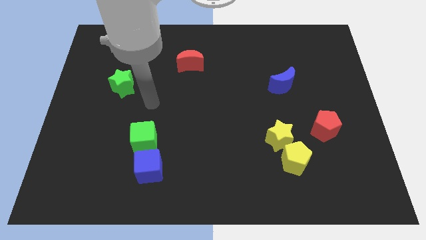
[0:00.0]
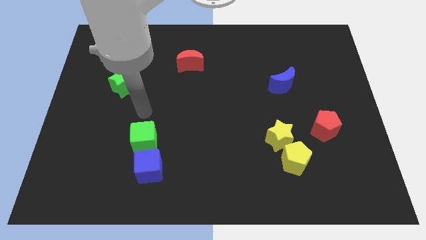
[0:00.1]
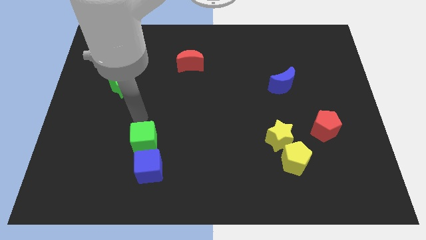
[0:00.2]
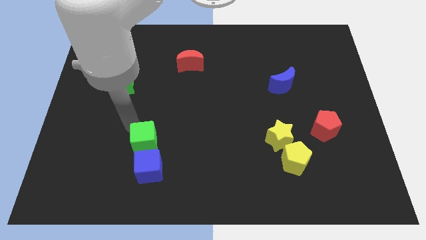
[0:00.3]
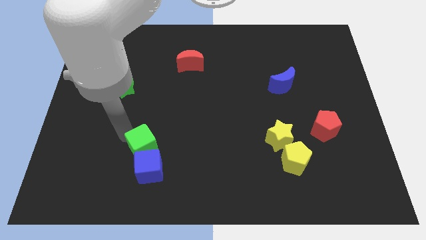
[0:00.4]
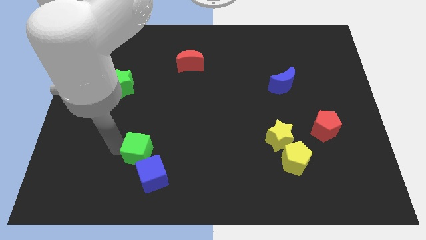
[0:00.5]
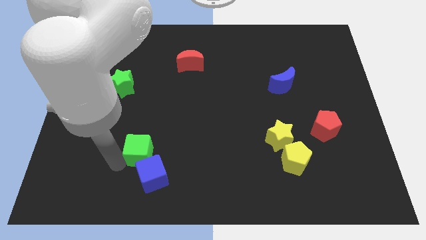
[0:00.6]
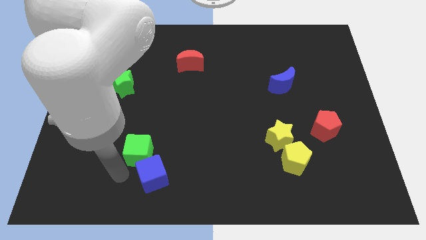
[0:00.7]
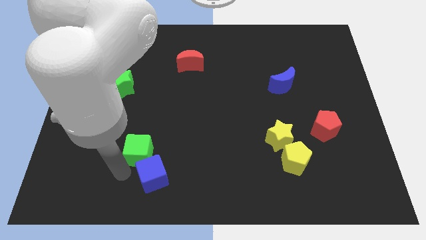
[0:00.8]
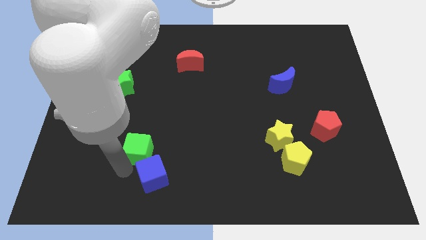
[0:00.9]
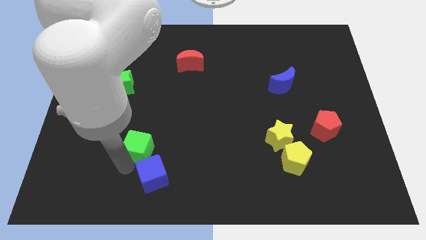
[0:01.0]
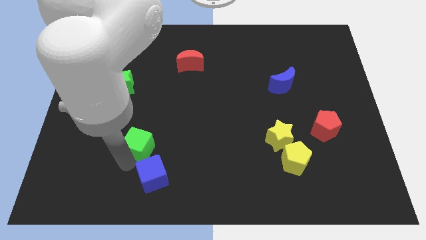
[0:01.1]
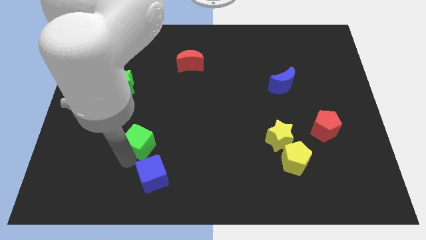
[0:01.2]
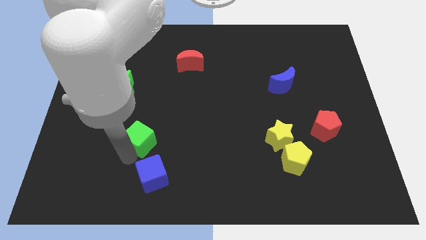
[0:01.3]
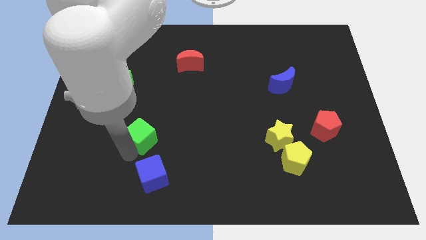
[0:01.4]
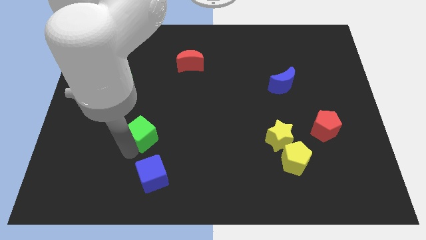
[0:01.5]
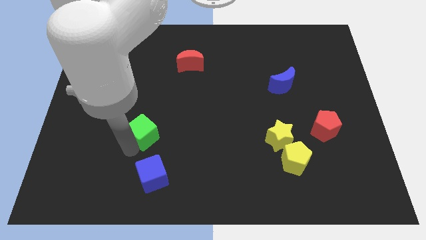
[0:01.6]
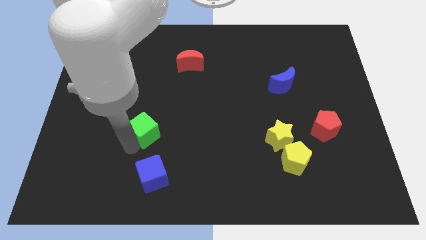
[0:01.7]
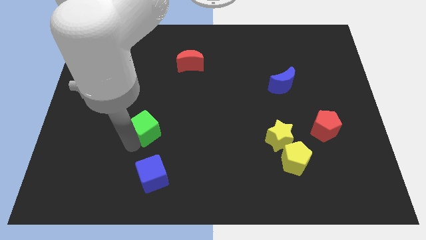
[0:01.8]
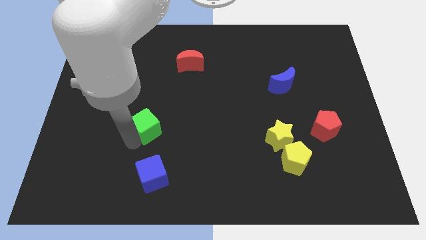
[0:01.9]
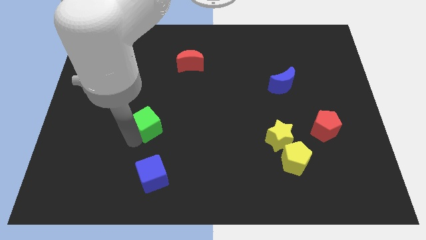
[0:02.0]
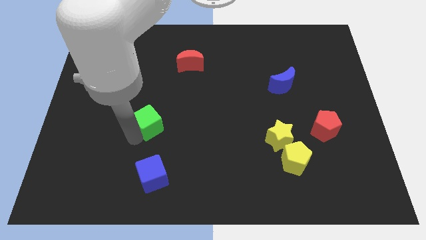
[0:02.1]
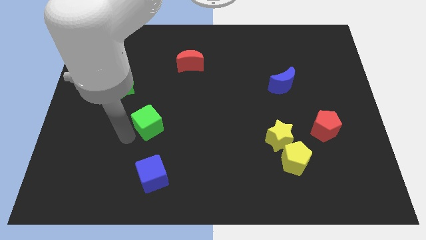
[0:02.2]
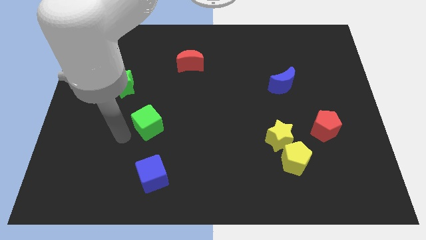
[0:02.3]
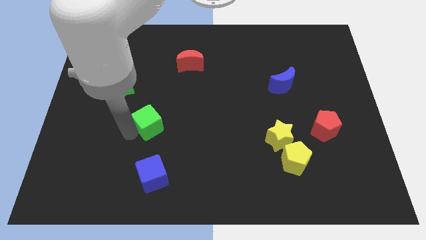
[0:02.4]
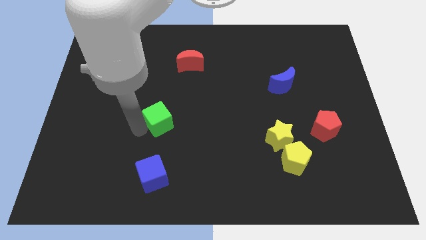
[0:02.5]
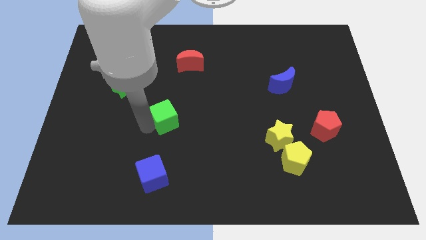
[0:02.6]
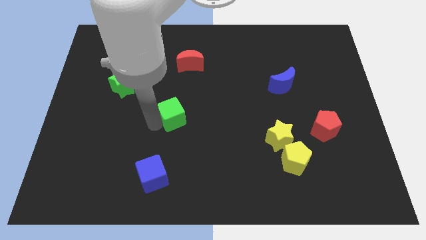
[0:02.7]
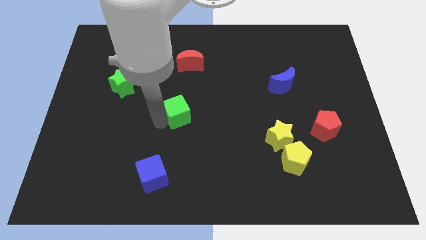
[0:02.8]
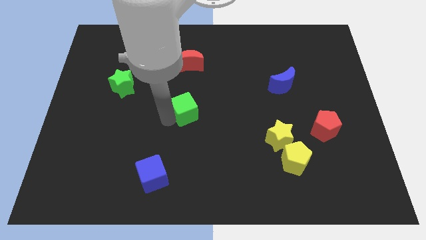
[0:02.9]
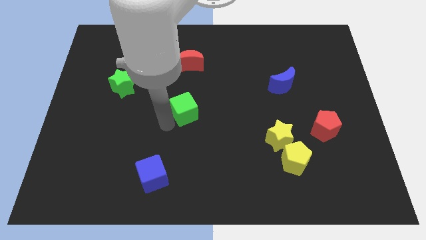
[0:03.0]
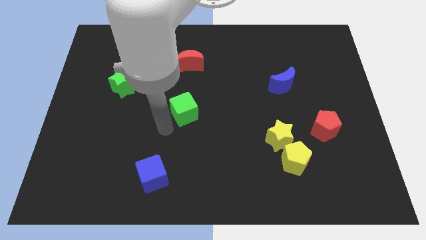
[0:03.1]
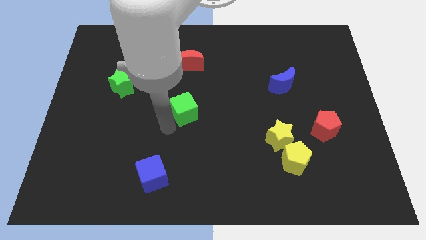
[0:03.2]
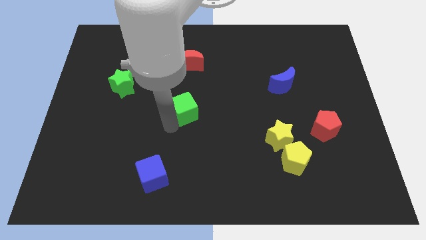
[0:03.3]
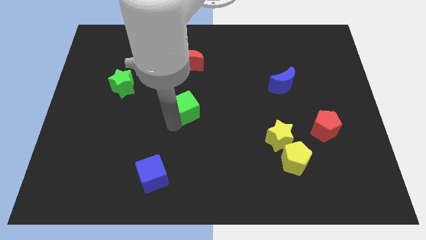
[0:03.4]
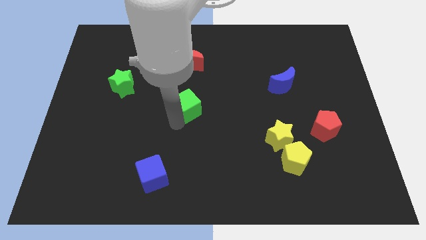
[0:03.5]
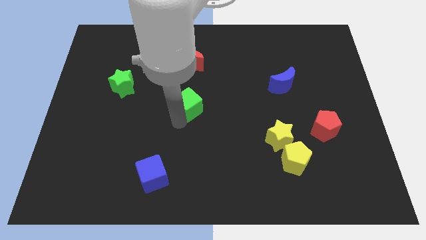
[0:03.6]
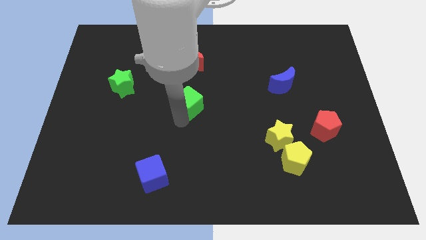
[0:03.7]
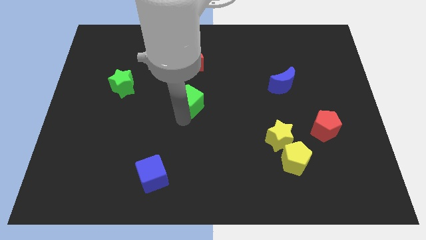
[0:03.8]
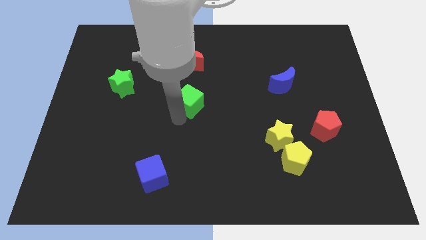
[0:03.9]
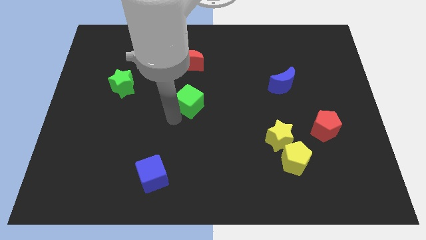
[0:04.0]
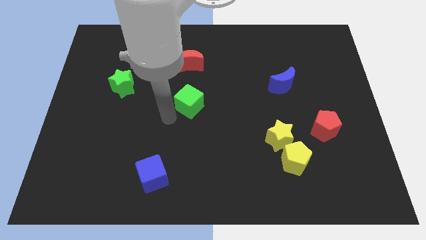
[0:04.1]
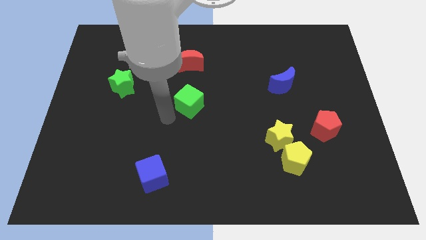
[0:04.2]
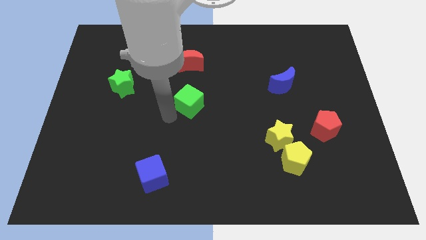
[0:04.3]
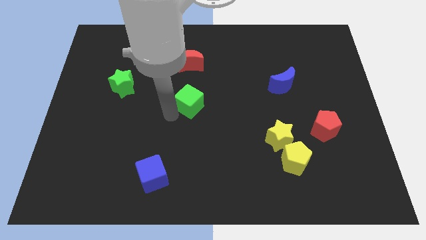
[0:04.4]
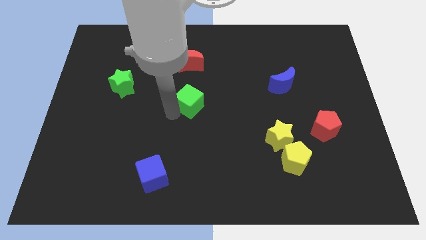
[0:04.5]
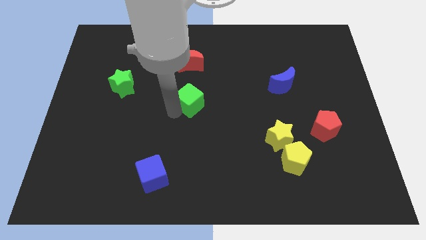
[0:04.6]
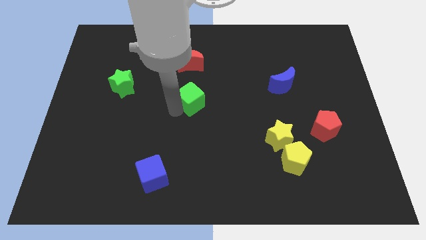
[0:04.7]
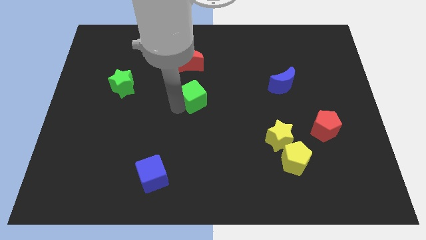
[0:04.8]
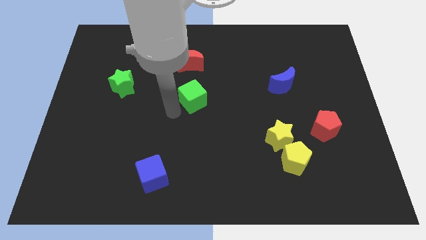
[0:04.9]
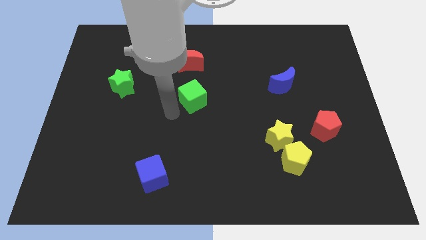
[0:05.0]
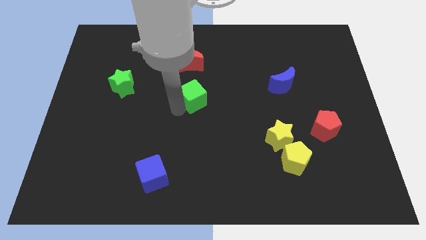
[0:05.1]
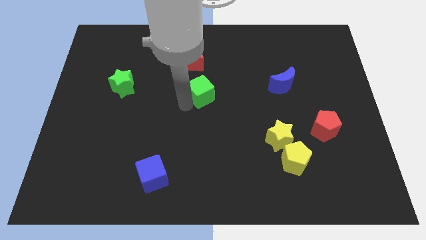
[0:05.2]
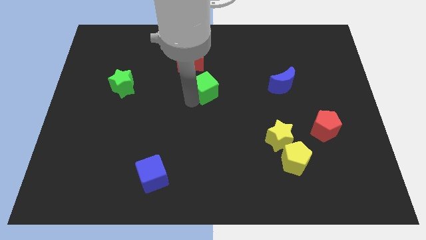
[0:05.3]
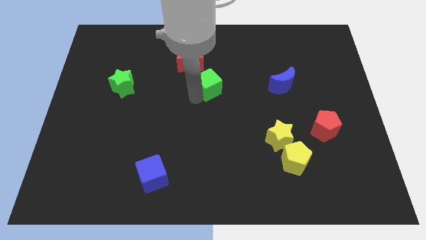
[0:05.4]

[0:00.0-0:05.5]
push the green cube diagonally up and to the right

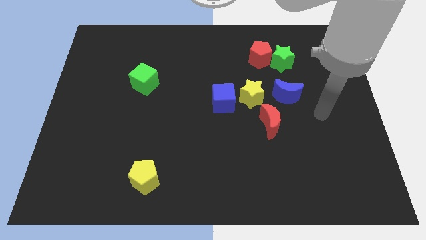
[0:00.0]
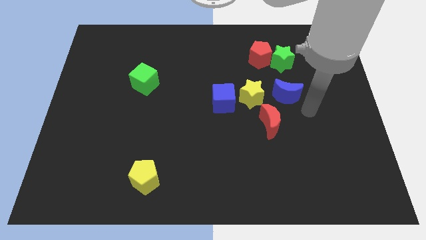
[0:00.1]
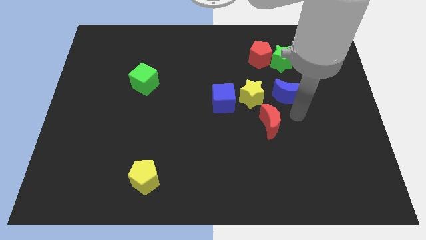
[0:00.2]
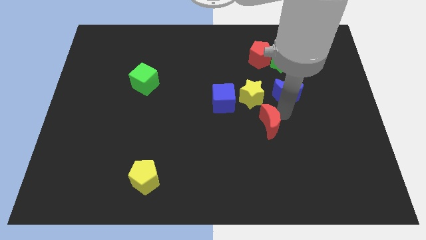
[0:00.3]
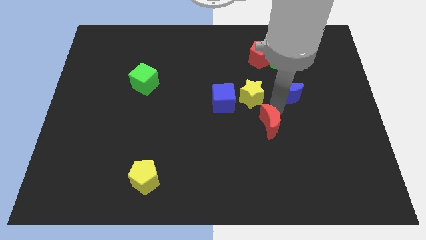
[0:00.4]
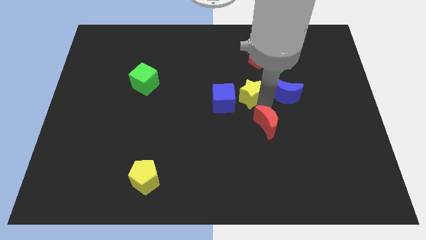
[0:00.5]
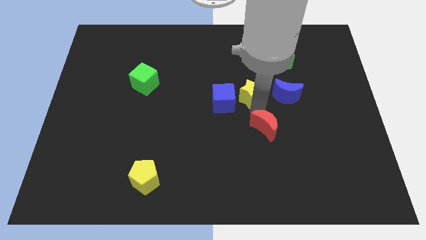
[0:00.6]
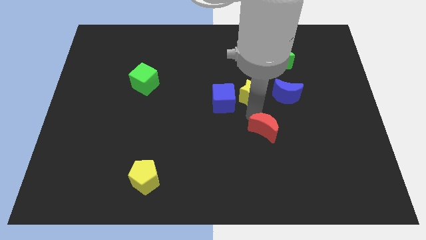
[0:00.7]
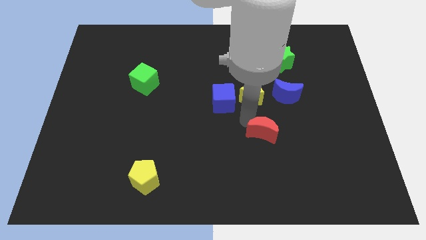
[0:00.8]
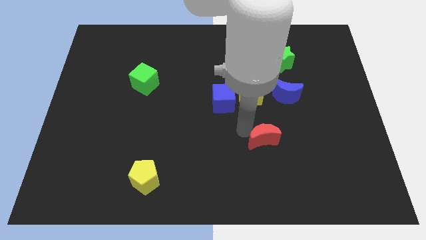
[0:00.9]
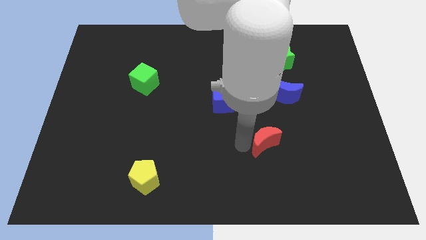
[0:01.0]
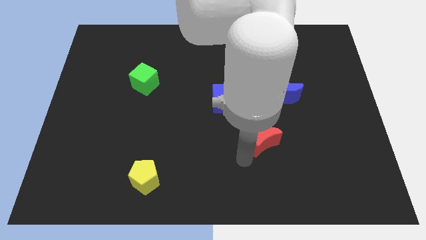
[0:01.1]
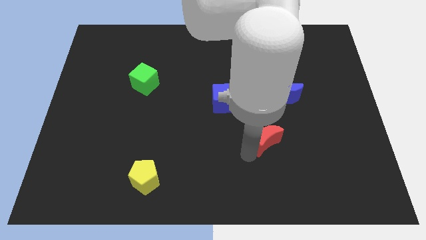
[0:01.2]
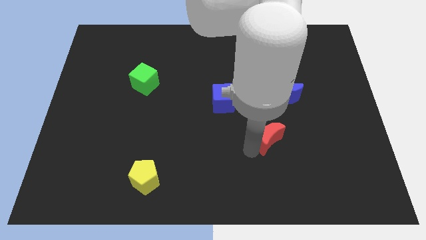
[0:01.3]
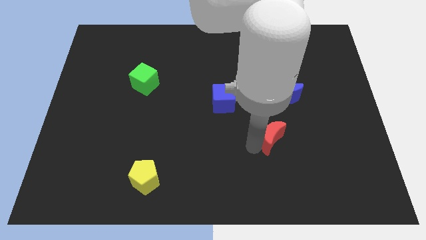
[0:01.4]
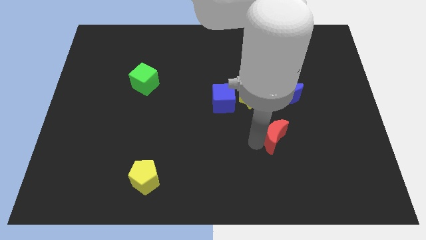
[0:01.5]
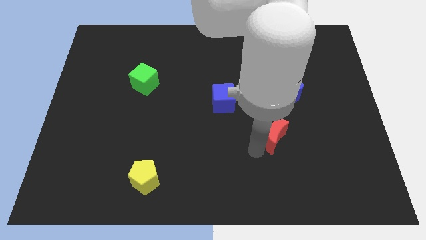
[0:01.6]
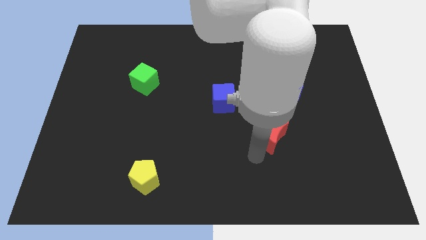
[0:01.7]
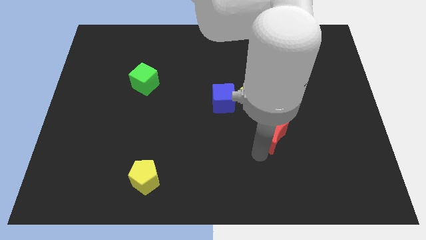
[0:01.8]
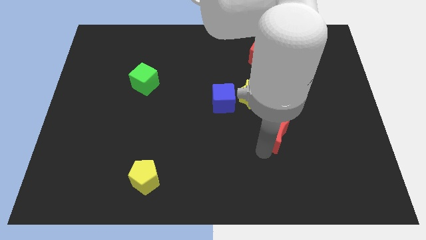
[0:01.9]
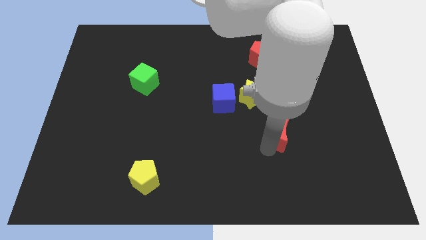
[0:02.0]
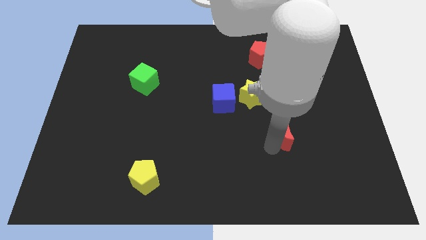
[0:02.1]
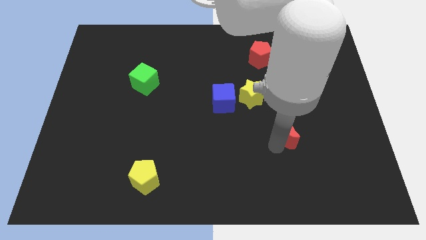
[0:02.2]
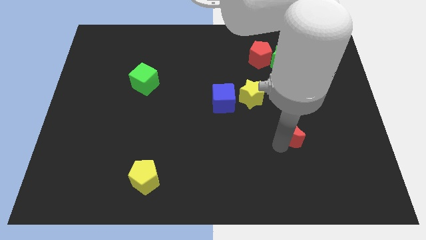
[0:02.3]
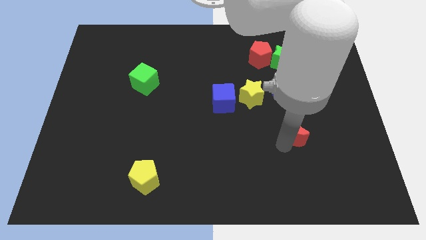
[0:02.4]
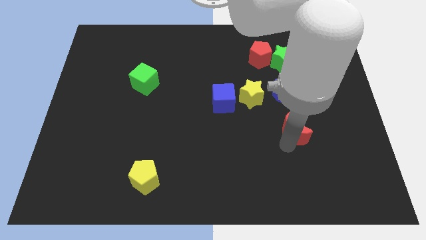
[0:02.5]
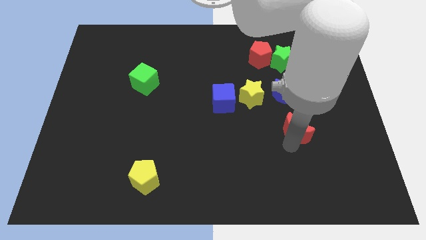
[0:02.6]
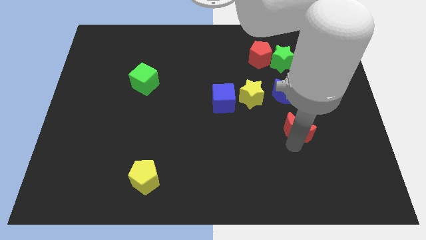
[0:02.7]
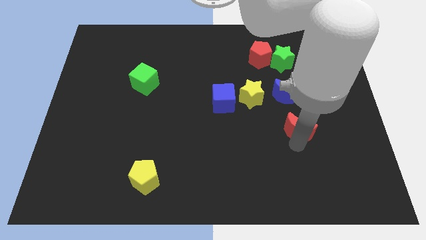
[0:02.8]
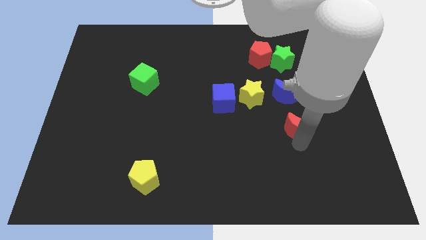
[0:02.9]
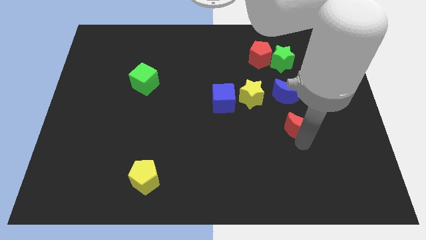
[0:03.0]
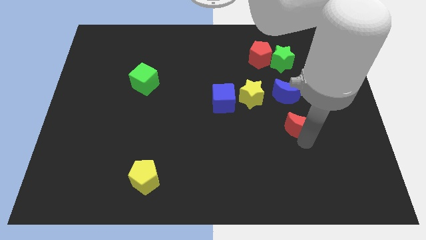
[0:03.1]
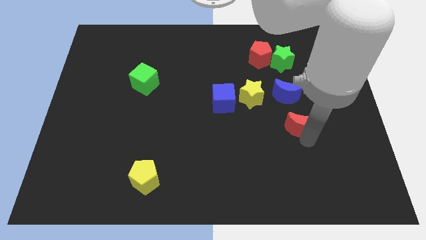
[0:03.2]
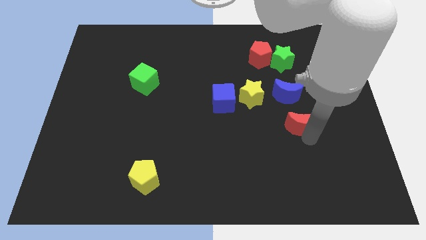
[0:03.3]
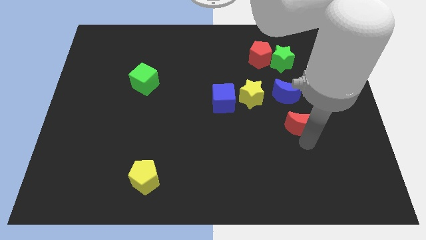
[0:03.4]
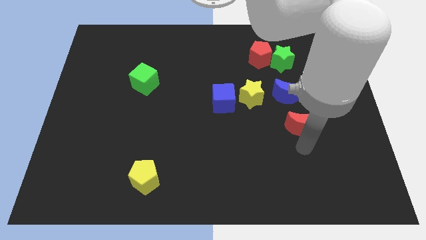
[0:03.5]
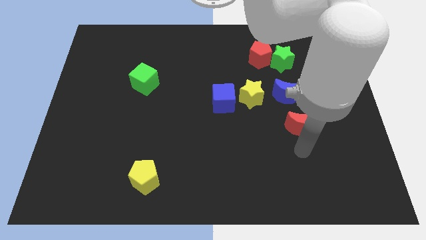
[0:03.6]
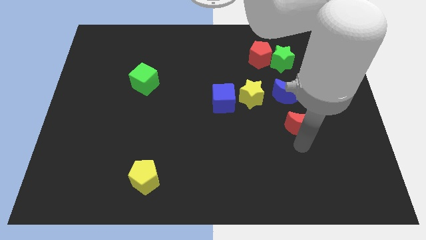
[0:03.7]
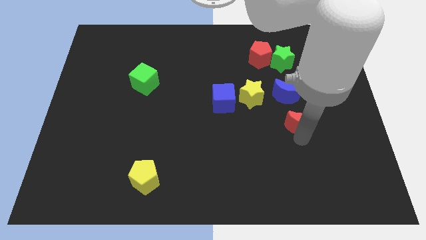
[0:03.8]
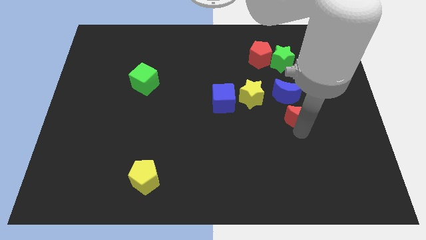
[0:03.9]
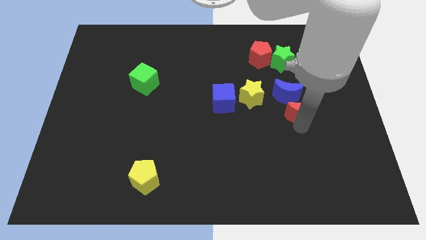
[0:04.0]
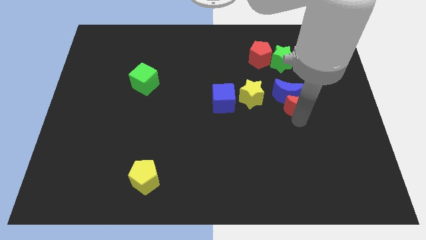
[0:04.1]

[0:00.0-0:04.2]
slide the red moon diagonally up and to the right a little
